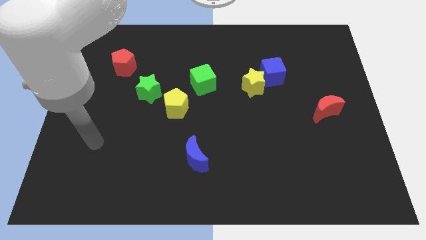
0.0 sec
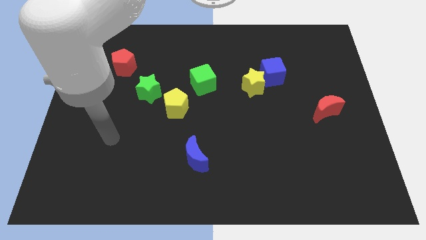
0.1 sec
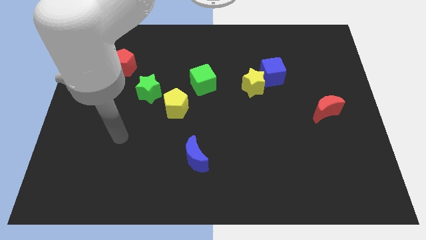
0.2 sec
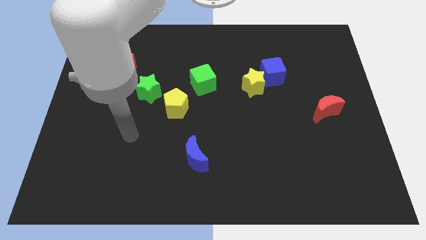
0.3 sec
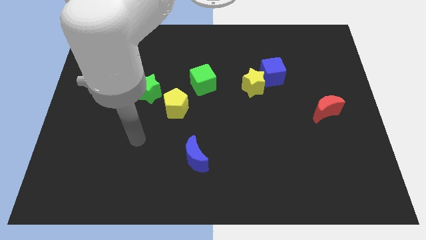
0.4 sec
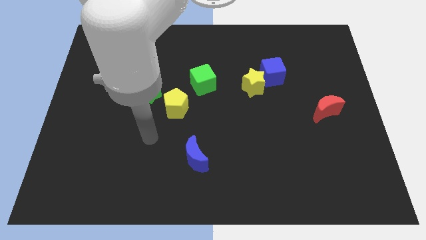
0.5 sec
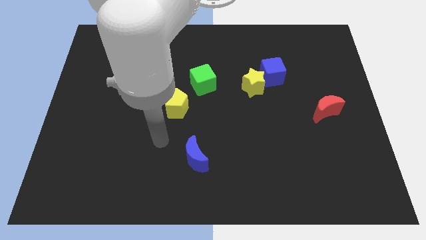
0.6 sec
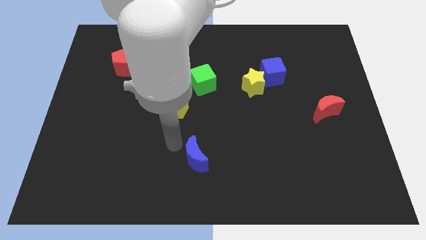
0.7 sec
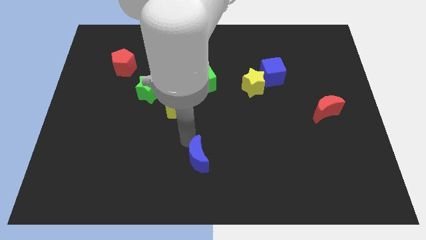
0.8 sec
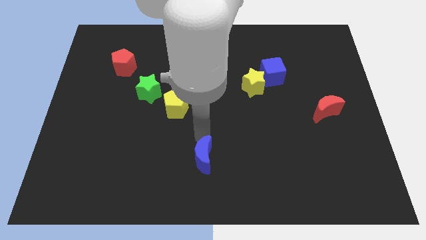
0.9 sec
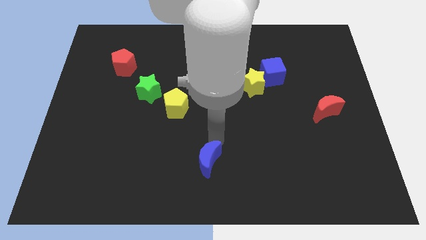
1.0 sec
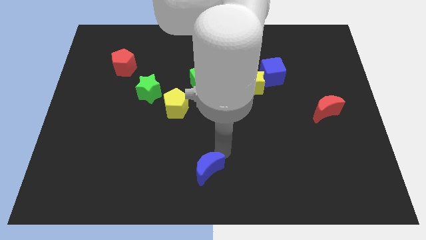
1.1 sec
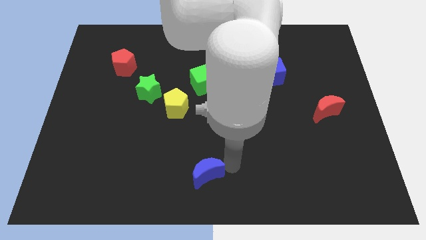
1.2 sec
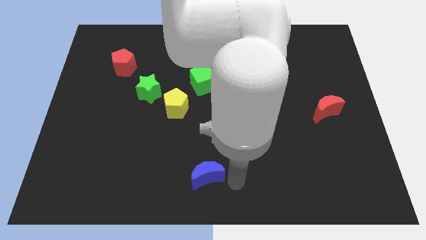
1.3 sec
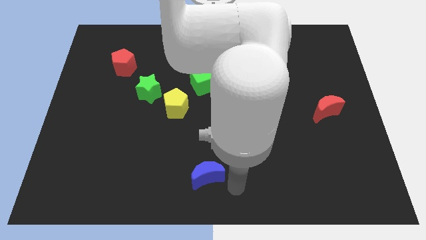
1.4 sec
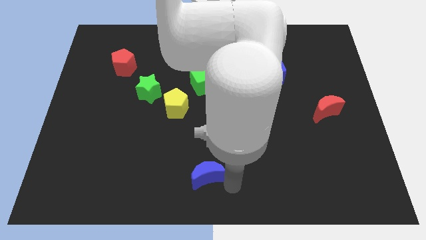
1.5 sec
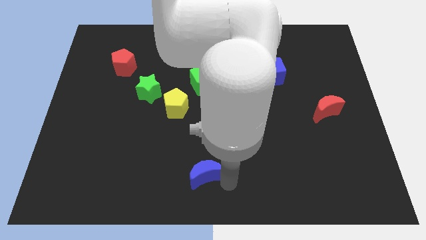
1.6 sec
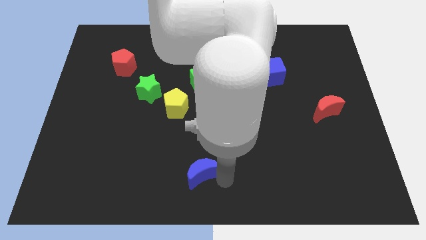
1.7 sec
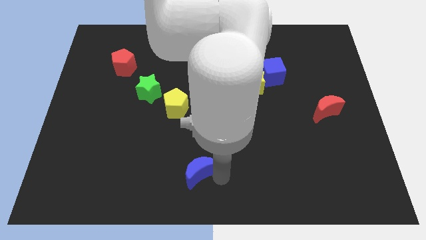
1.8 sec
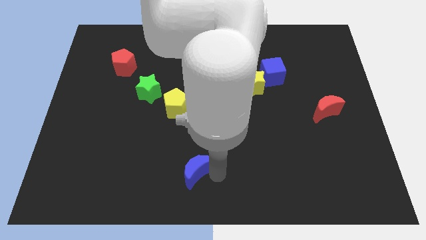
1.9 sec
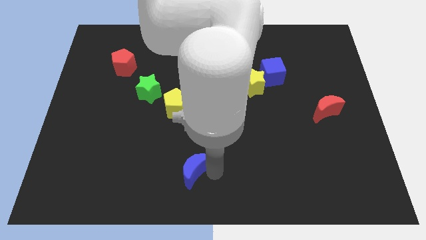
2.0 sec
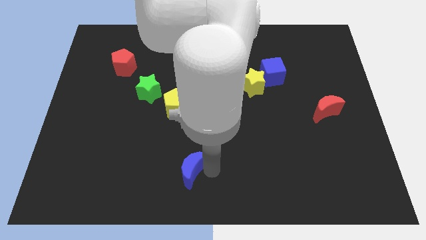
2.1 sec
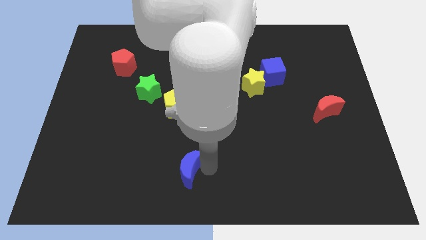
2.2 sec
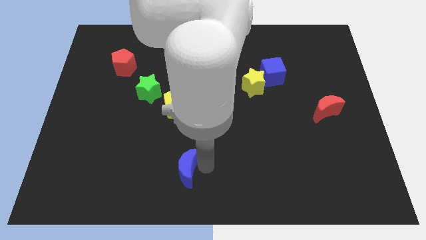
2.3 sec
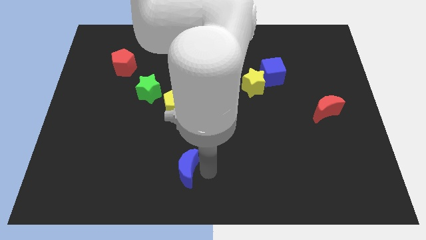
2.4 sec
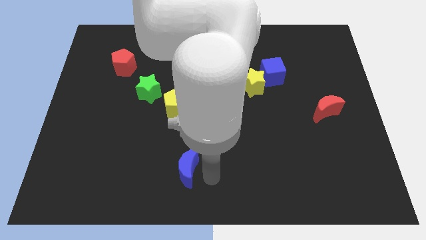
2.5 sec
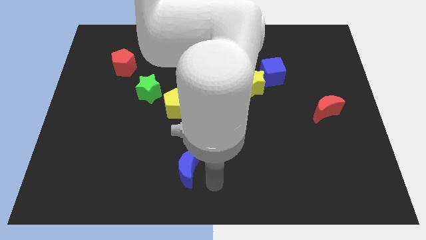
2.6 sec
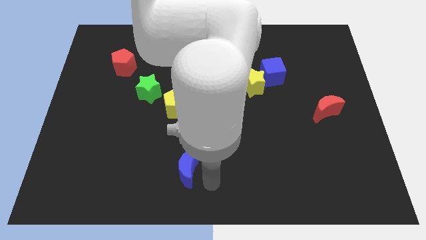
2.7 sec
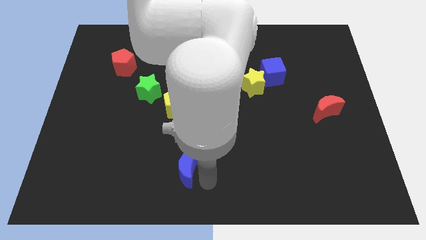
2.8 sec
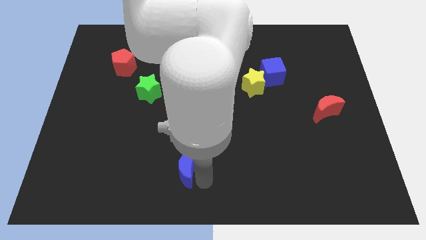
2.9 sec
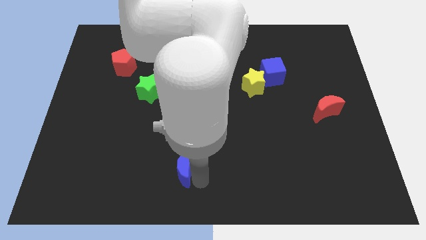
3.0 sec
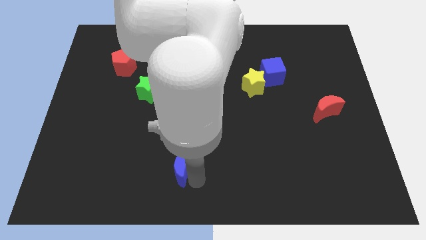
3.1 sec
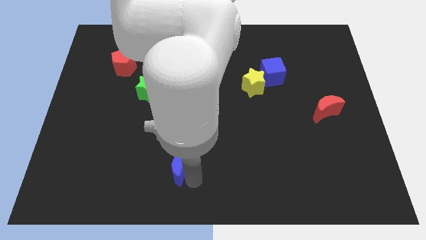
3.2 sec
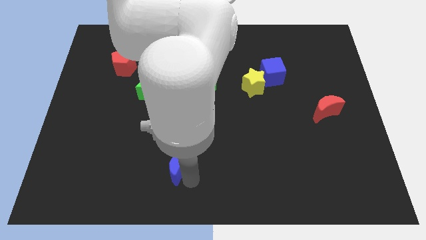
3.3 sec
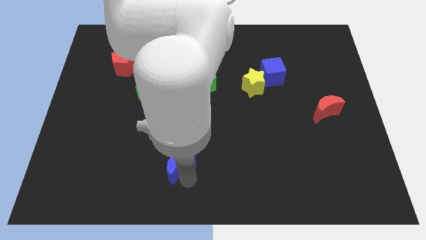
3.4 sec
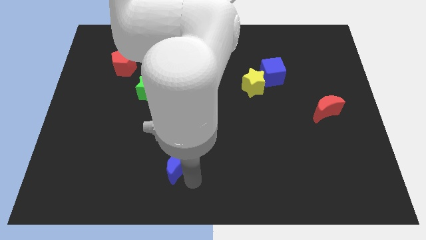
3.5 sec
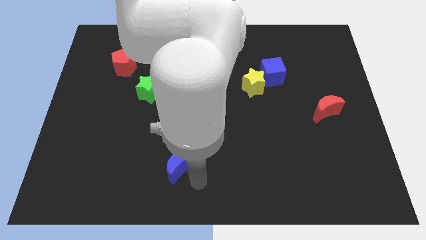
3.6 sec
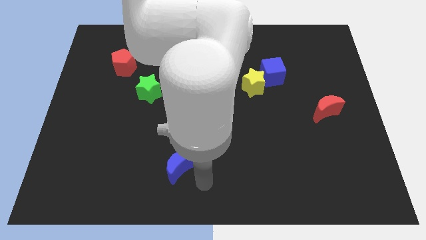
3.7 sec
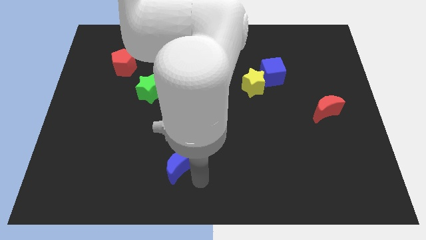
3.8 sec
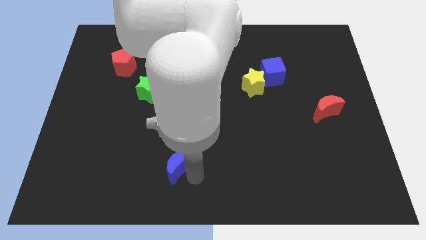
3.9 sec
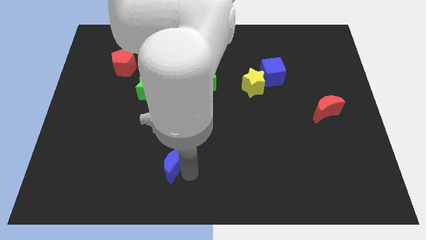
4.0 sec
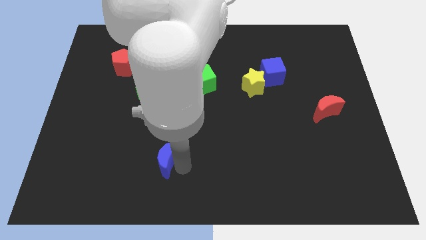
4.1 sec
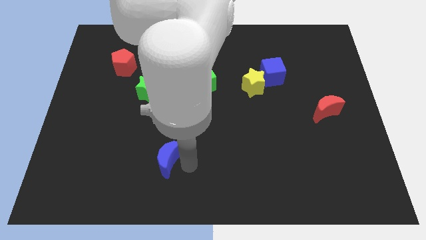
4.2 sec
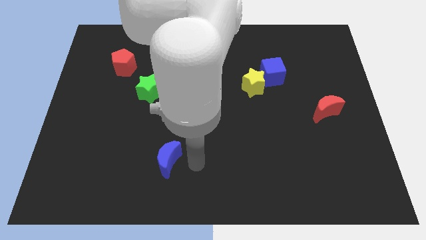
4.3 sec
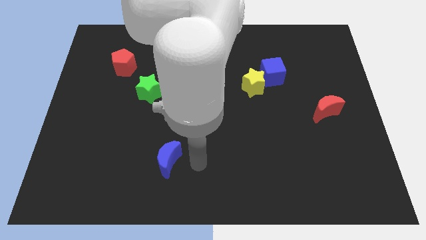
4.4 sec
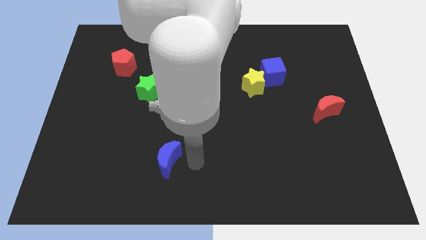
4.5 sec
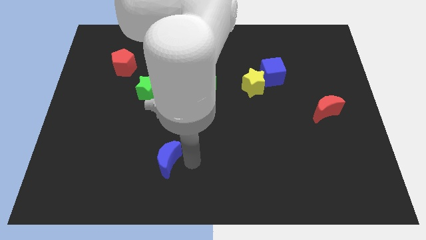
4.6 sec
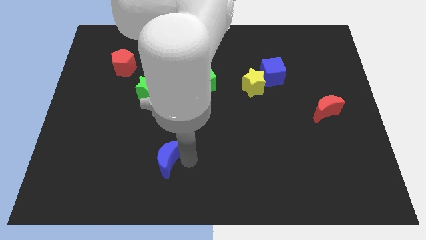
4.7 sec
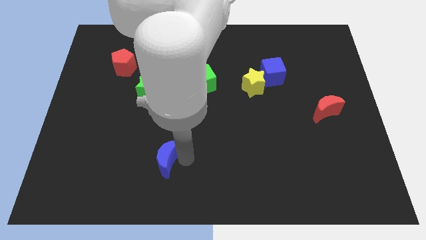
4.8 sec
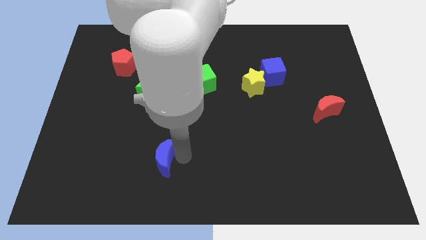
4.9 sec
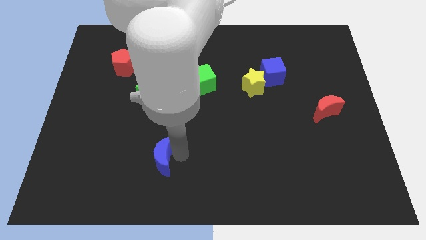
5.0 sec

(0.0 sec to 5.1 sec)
slightly move the blue moon to the left

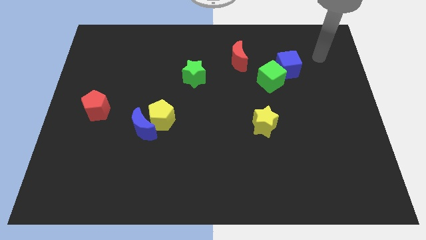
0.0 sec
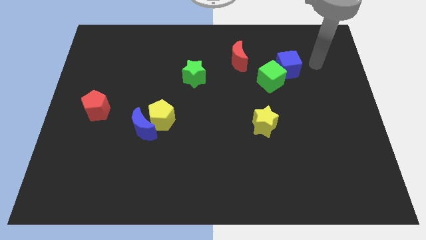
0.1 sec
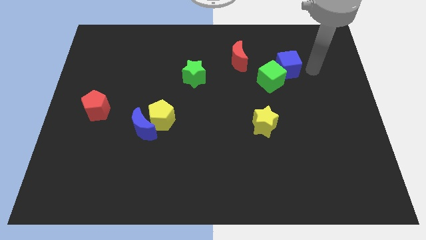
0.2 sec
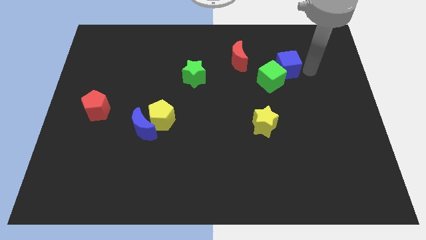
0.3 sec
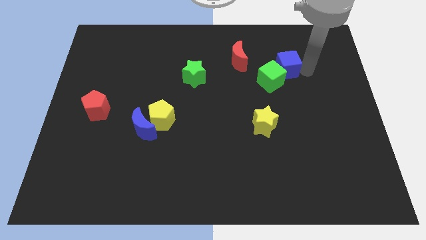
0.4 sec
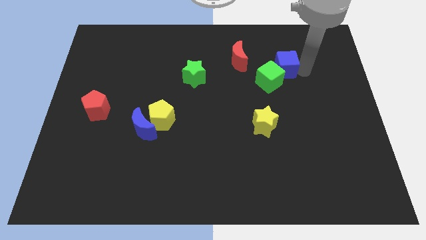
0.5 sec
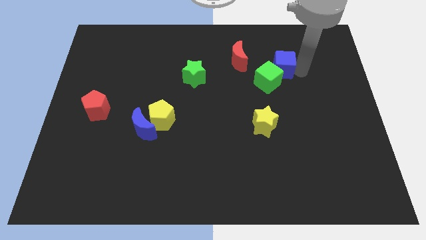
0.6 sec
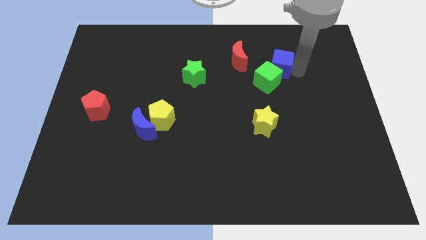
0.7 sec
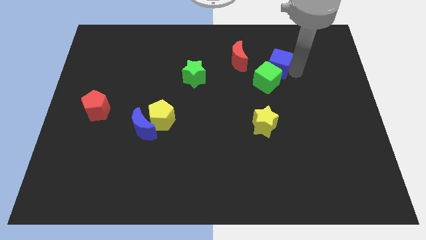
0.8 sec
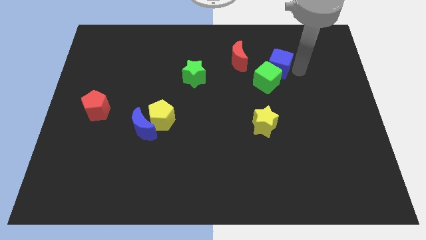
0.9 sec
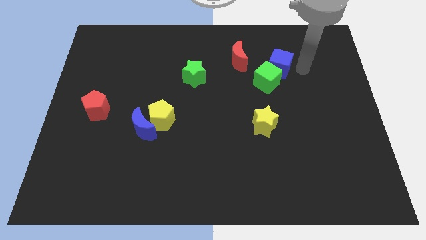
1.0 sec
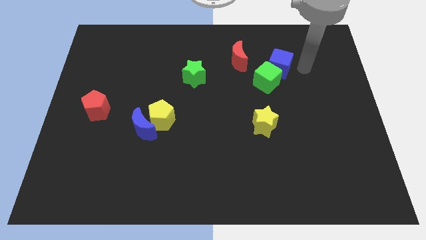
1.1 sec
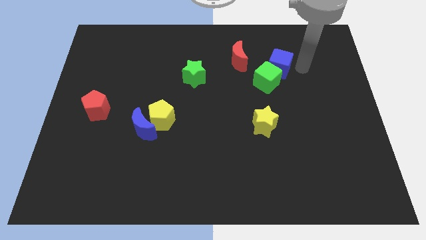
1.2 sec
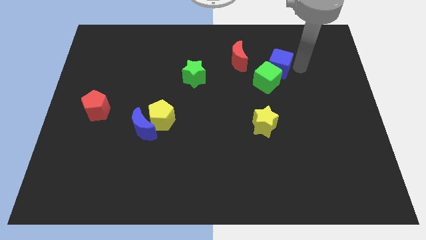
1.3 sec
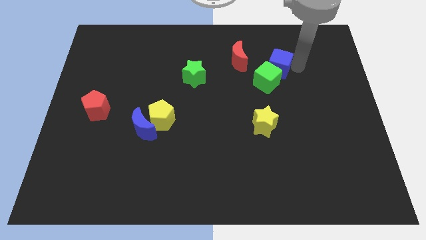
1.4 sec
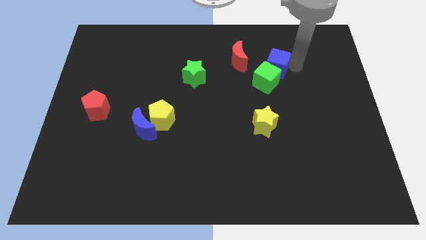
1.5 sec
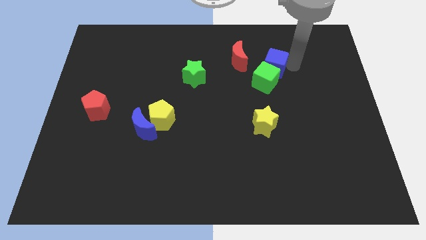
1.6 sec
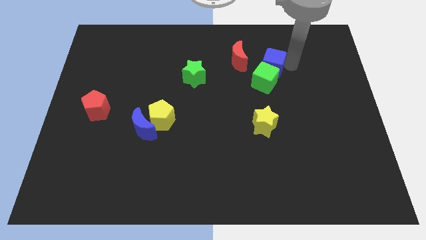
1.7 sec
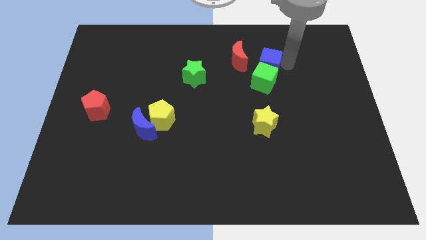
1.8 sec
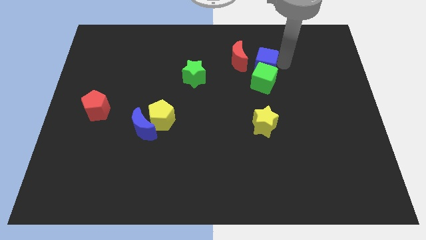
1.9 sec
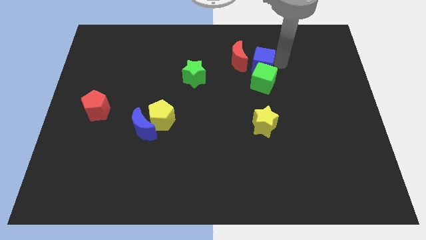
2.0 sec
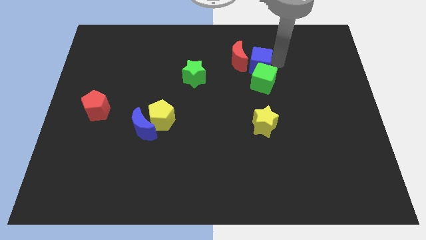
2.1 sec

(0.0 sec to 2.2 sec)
move the blue cube left slightly

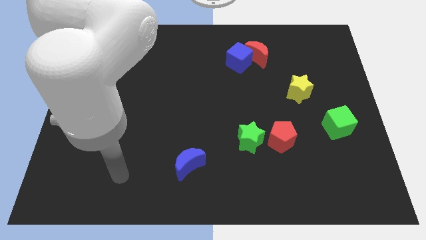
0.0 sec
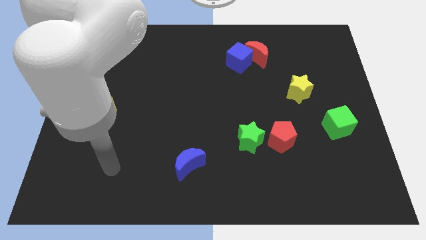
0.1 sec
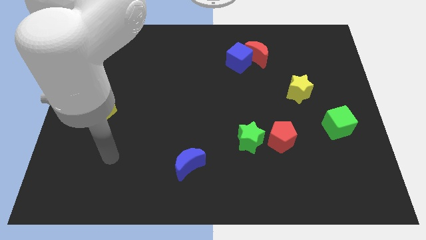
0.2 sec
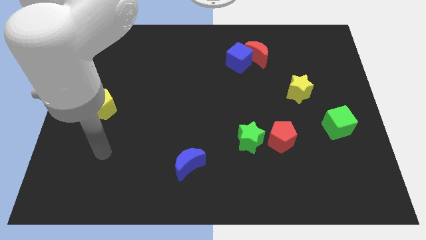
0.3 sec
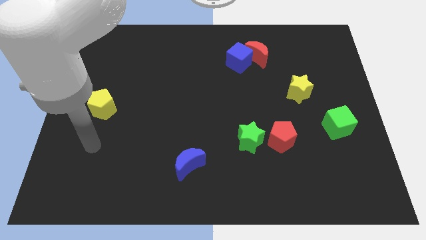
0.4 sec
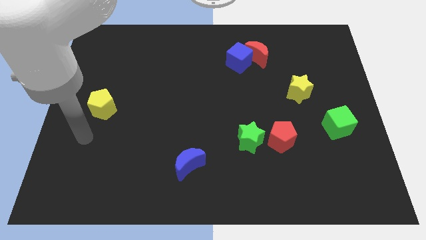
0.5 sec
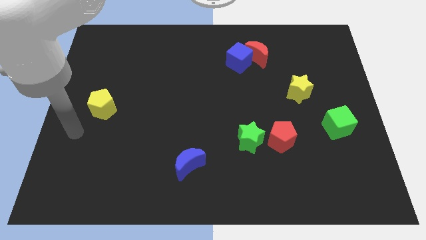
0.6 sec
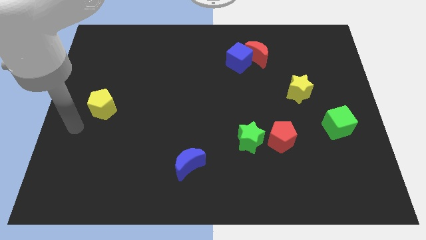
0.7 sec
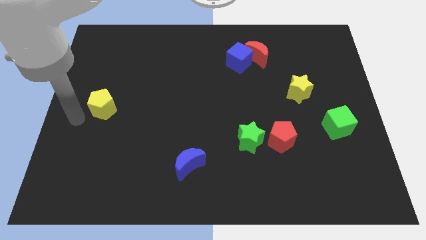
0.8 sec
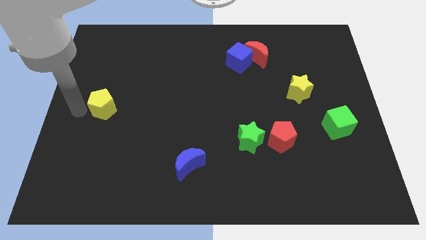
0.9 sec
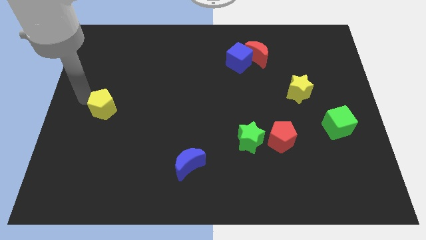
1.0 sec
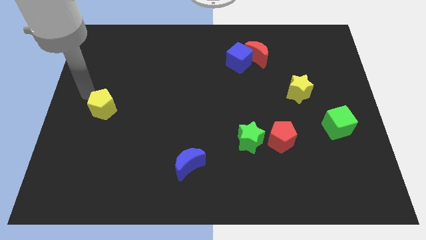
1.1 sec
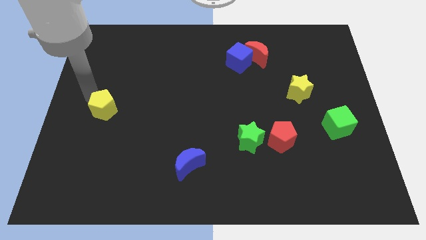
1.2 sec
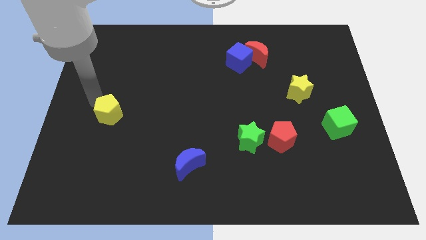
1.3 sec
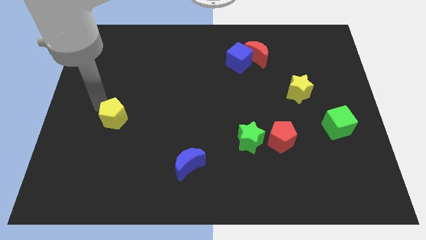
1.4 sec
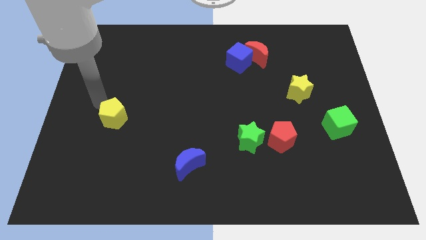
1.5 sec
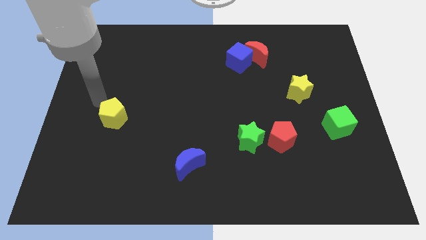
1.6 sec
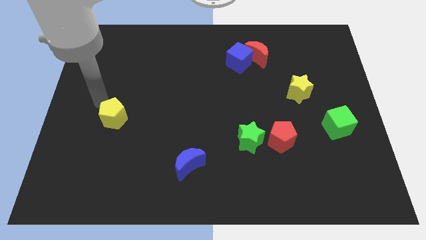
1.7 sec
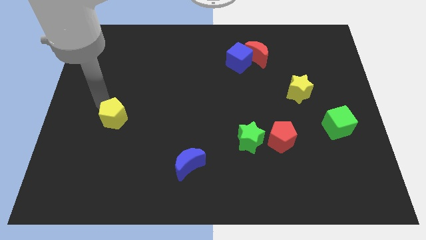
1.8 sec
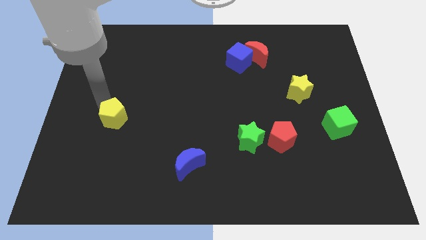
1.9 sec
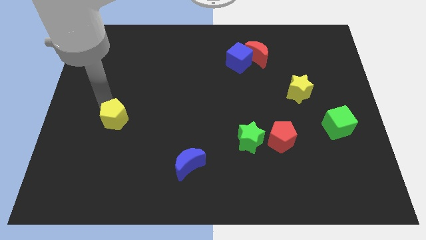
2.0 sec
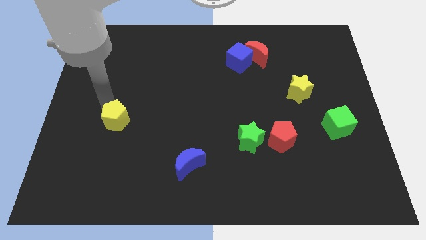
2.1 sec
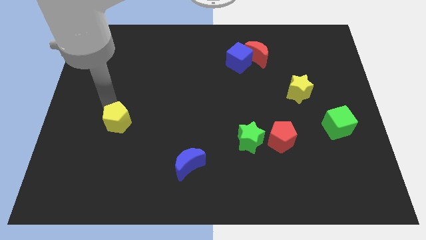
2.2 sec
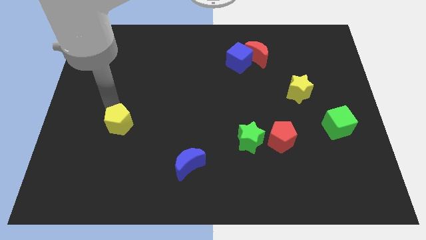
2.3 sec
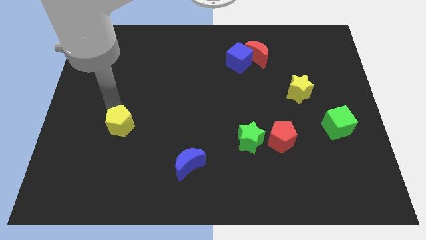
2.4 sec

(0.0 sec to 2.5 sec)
slide the yellow pentagon down and then right a little
